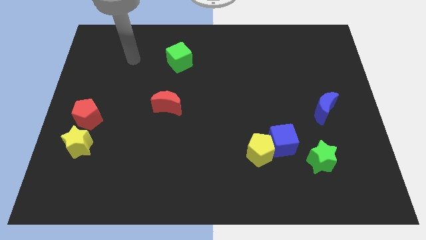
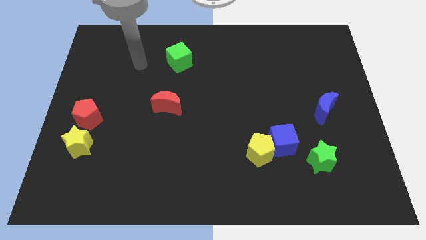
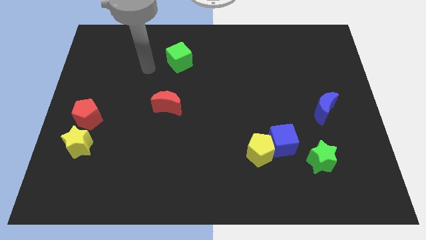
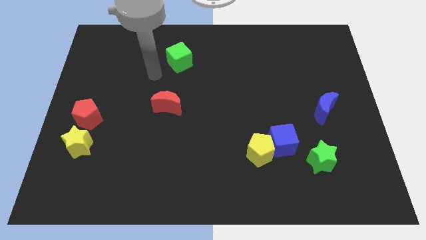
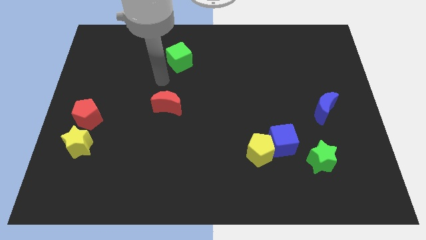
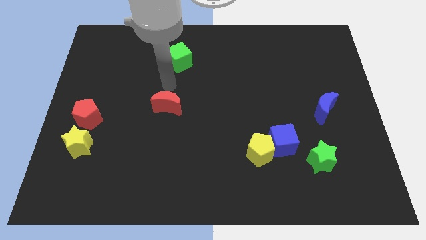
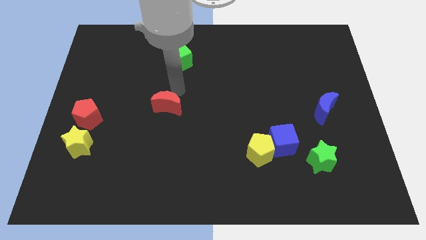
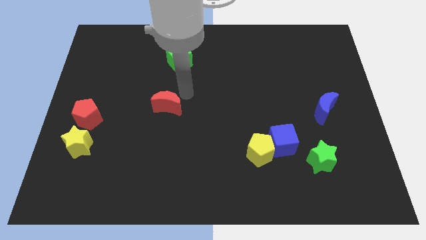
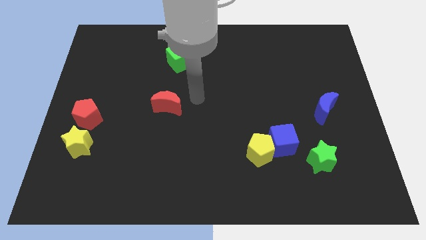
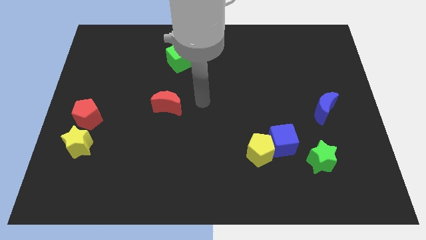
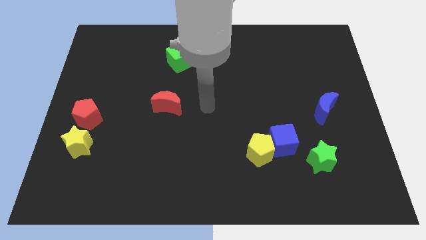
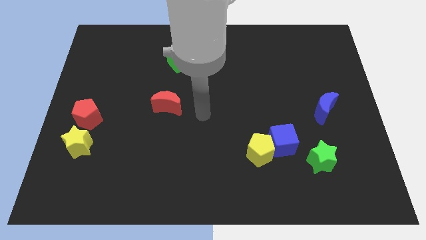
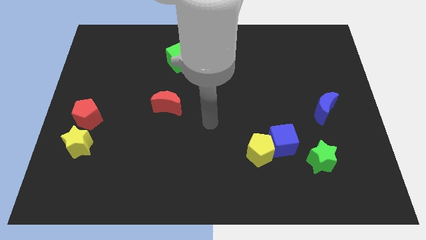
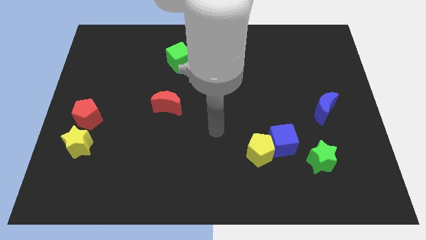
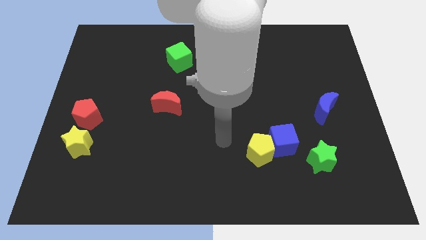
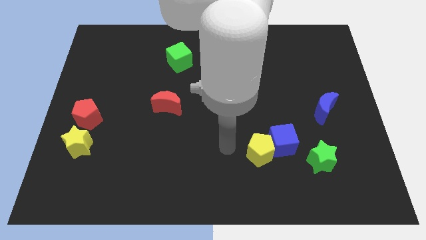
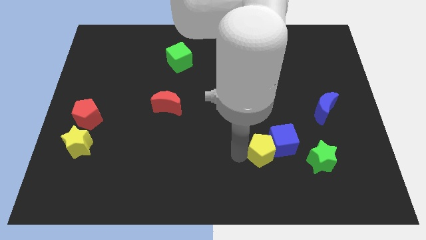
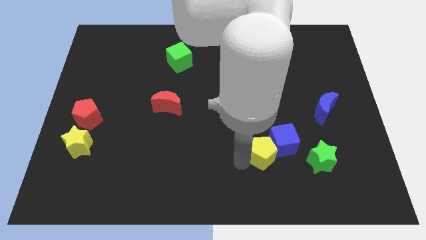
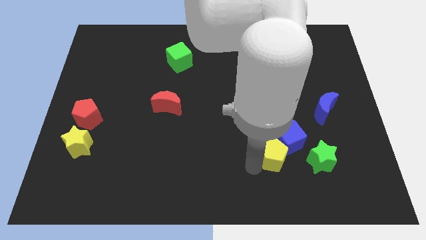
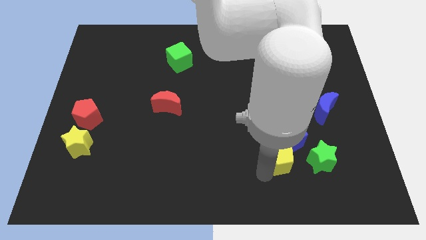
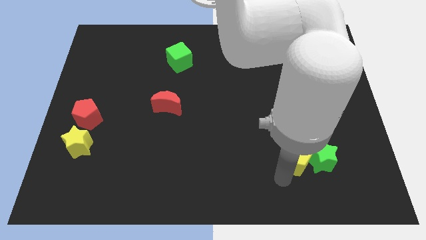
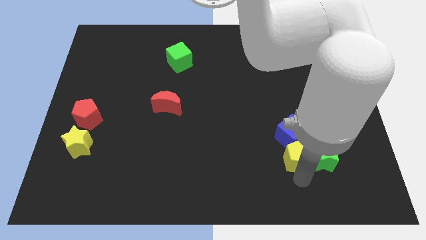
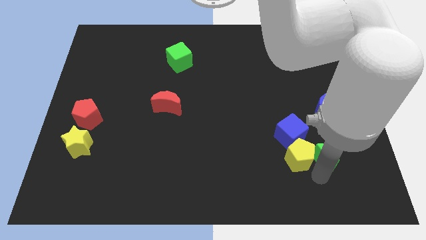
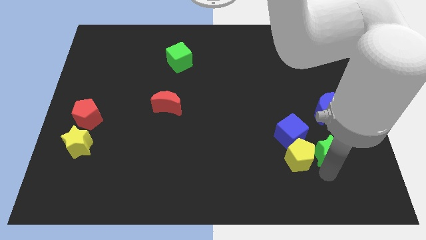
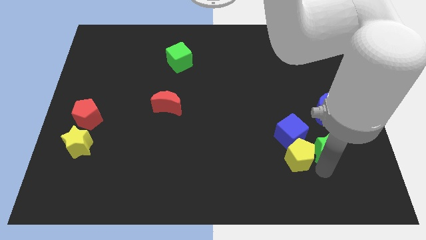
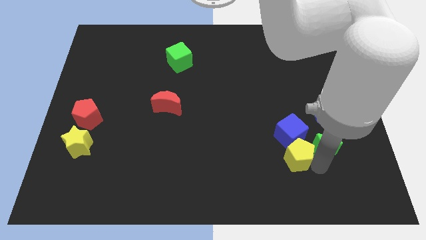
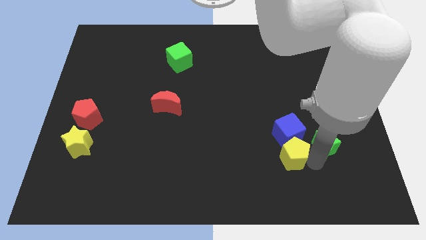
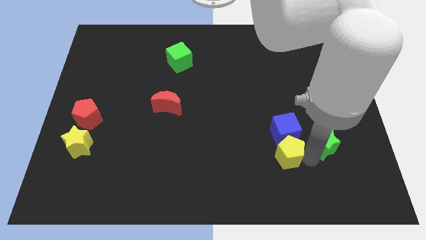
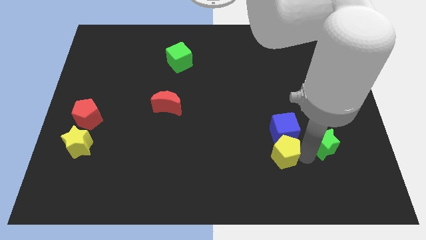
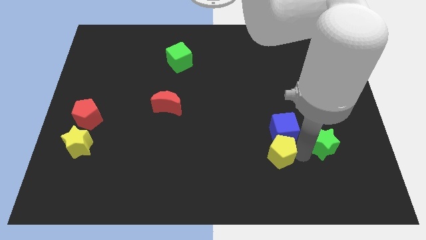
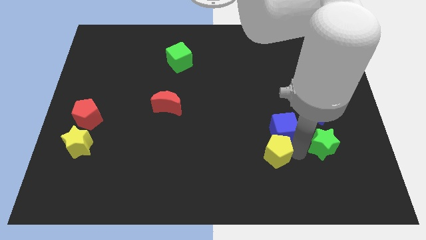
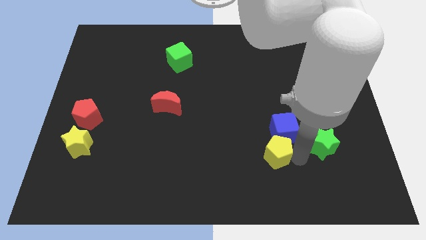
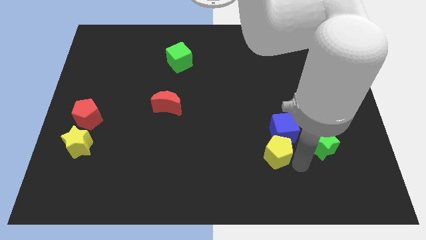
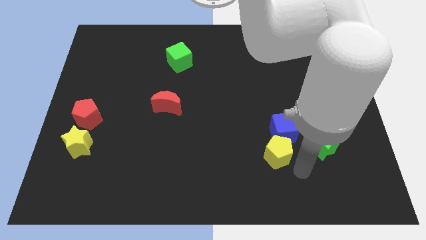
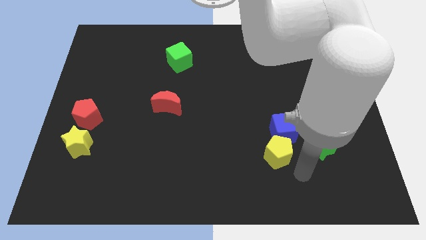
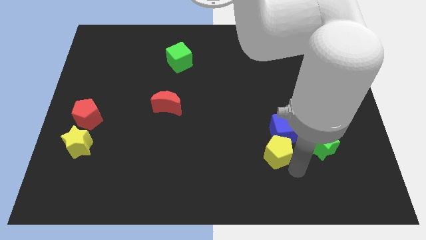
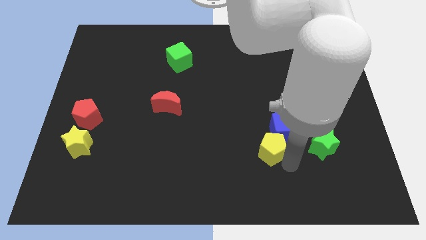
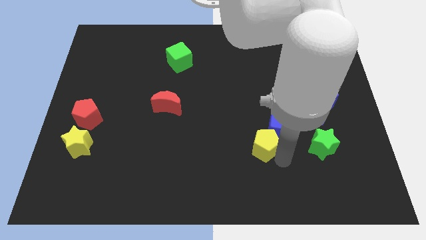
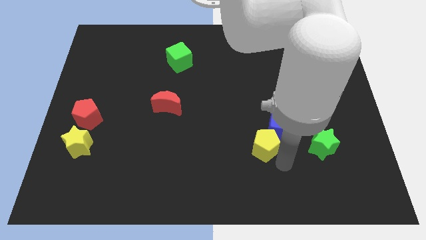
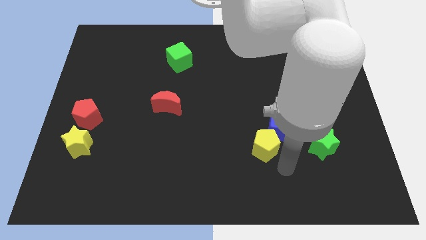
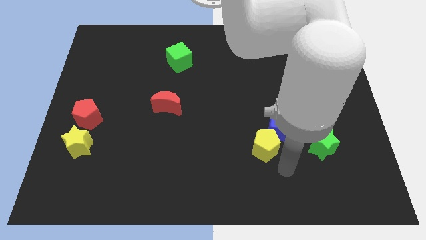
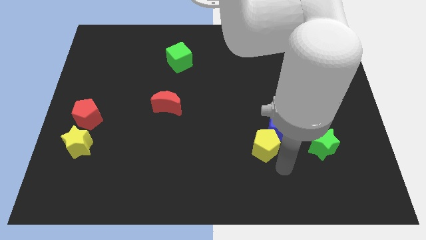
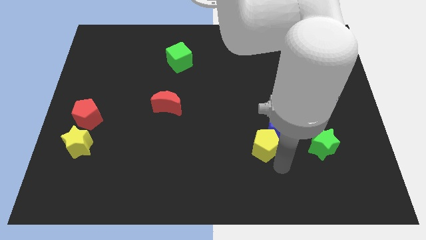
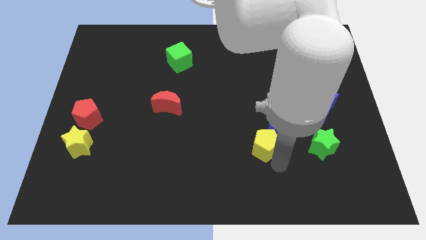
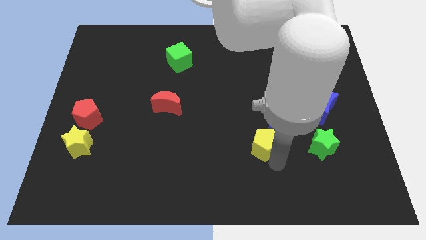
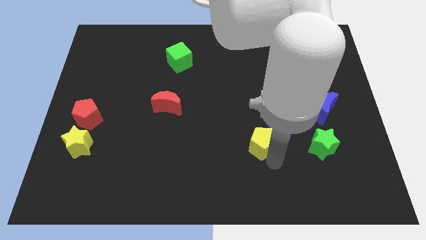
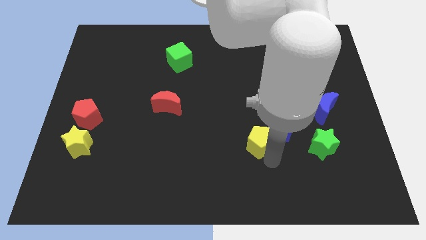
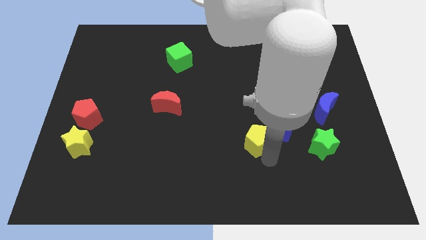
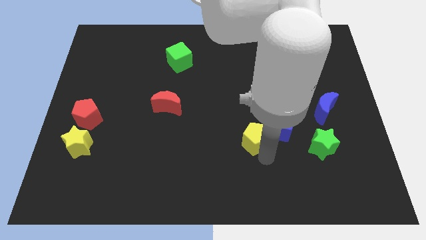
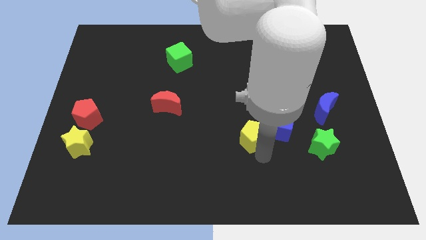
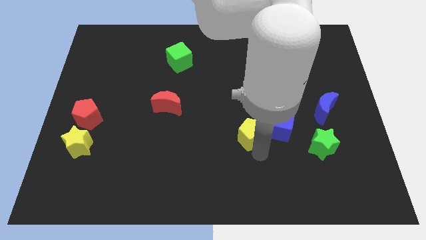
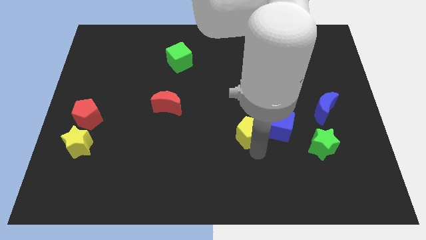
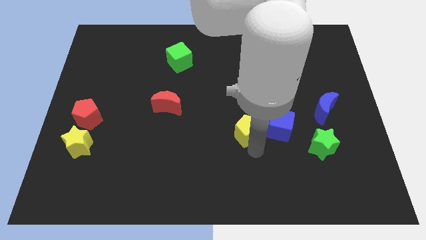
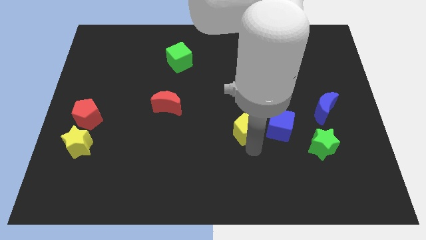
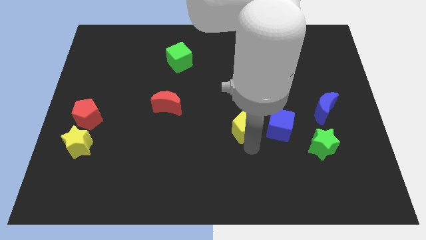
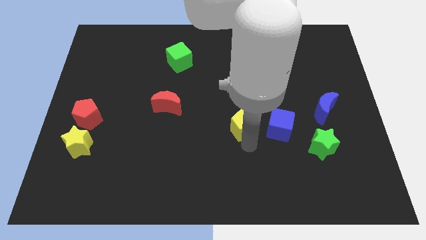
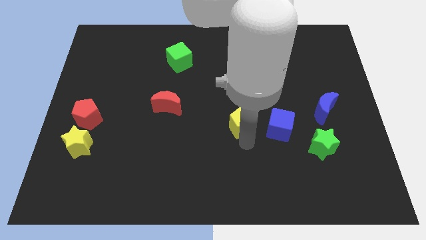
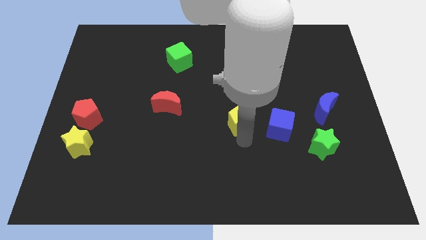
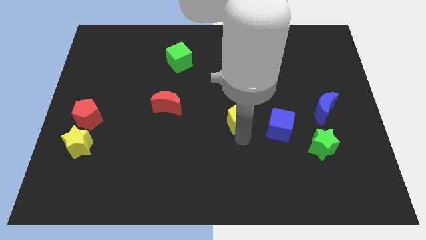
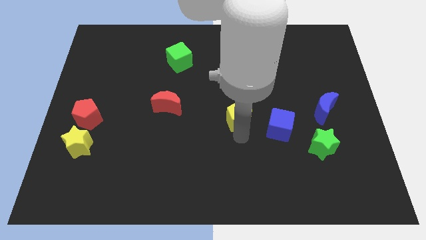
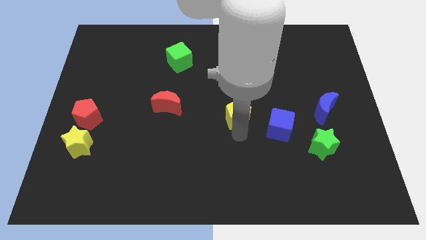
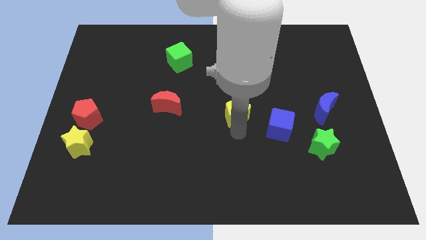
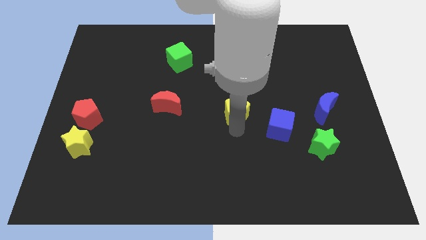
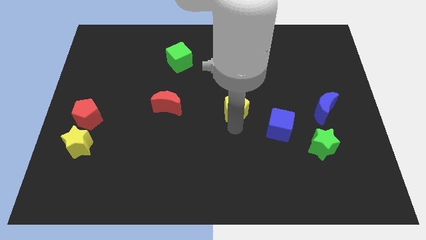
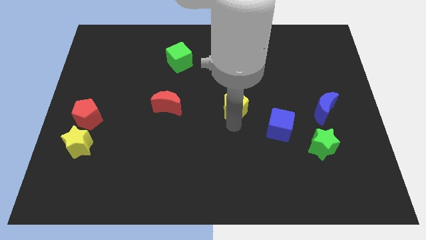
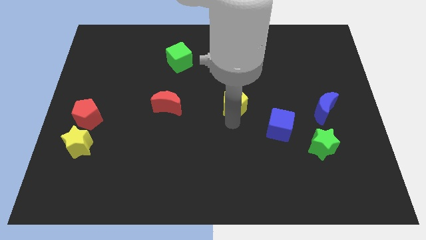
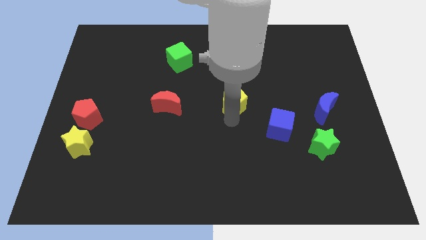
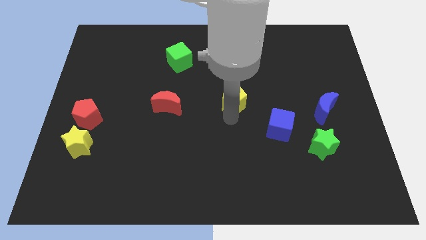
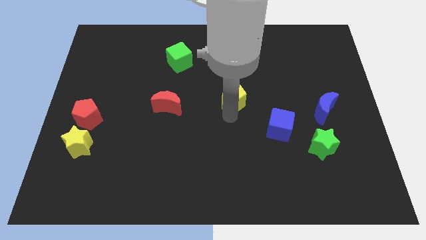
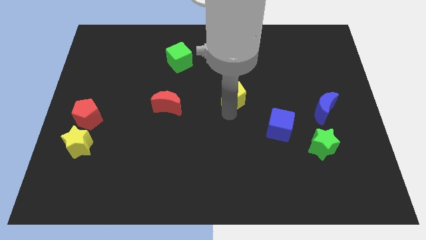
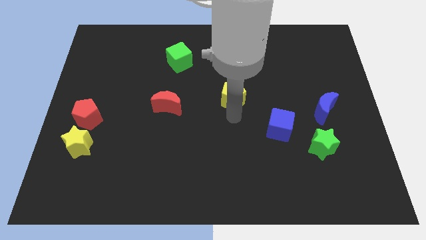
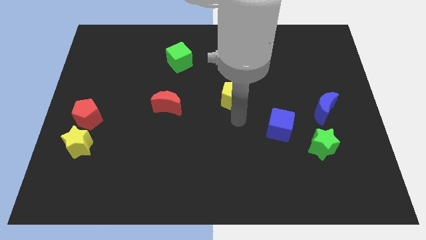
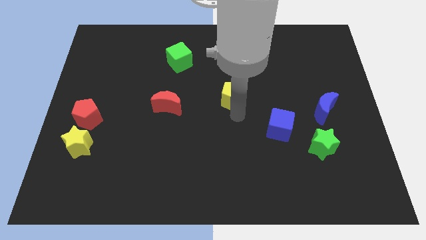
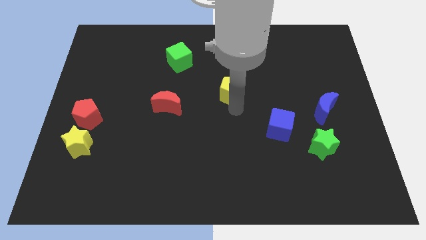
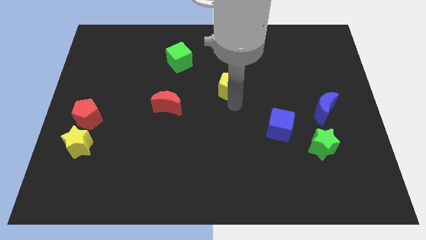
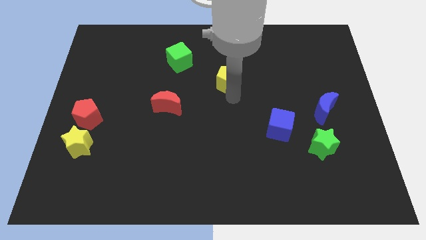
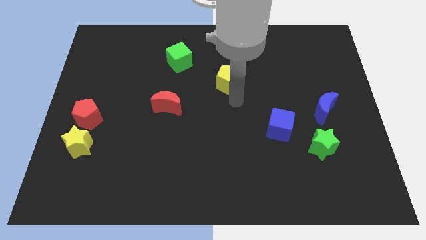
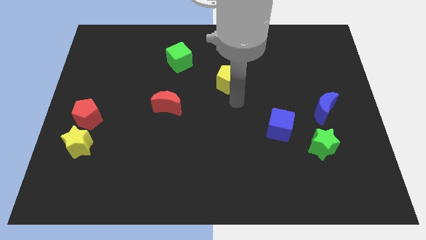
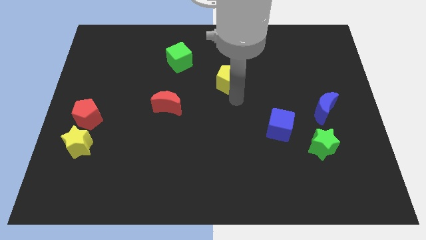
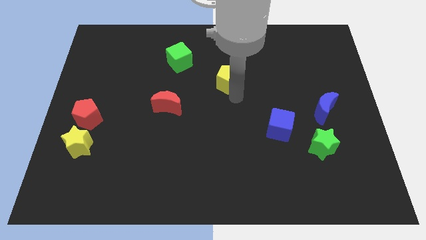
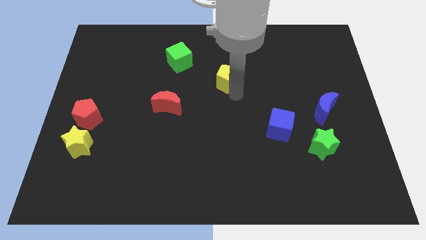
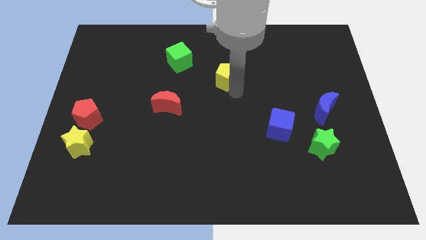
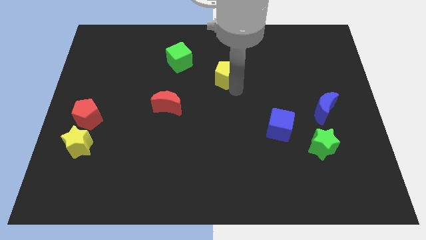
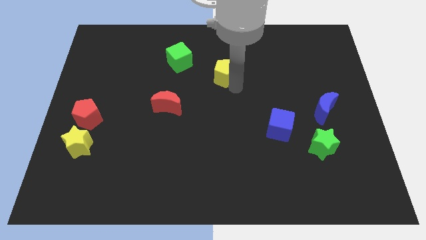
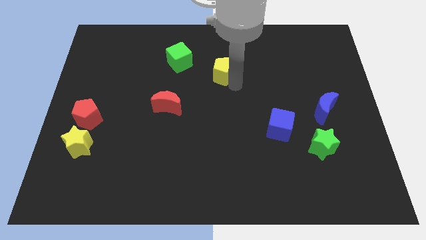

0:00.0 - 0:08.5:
slide the yellow pentagon to the right side of the green cube
